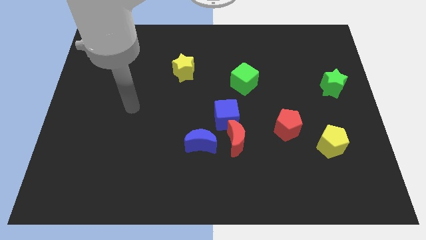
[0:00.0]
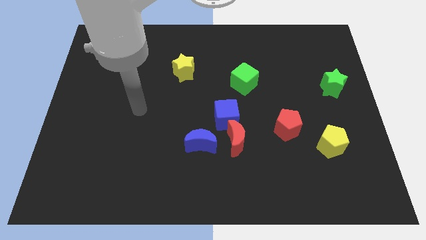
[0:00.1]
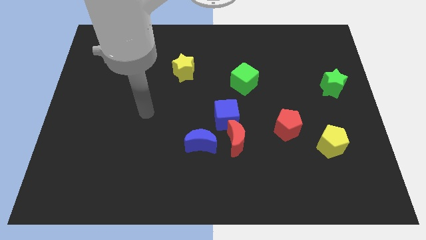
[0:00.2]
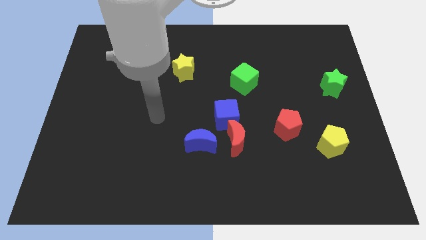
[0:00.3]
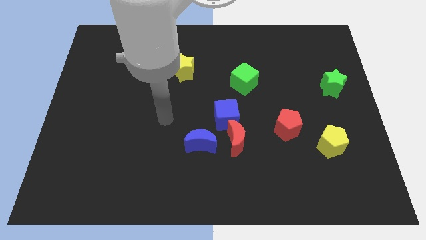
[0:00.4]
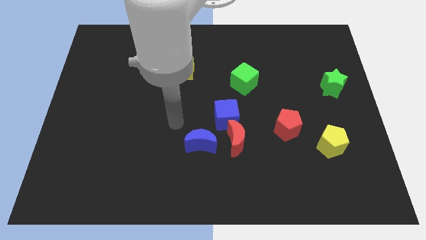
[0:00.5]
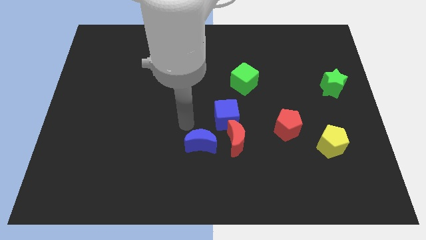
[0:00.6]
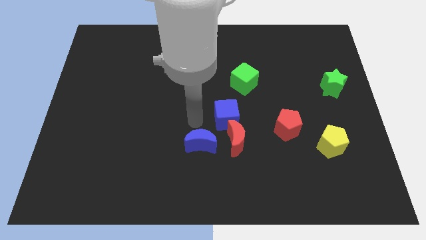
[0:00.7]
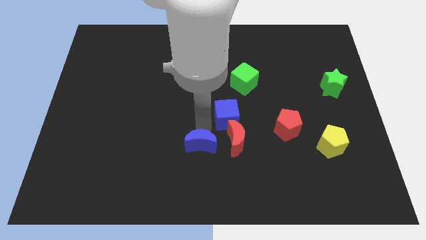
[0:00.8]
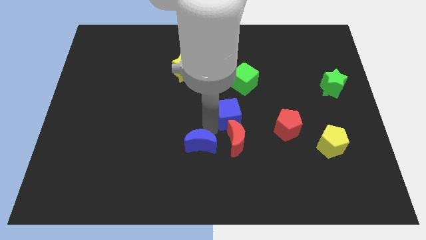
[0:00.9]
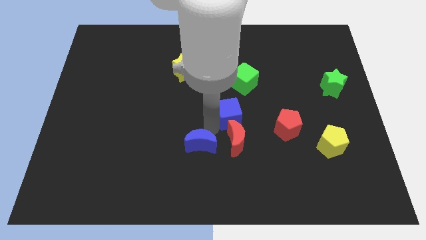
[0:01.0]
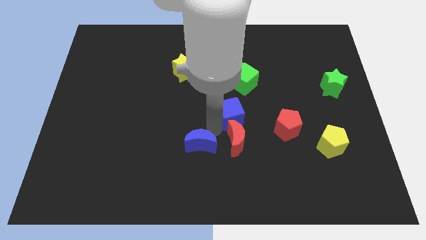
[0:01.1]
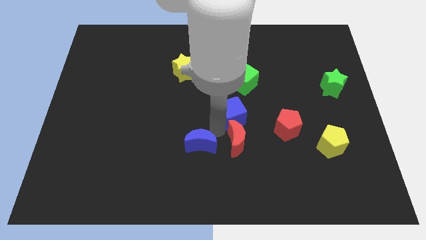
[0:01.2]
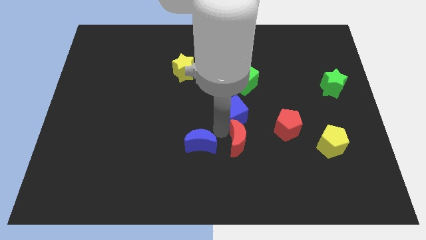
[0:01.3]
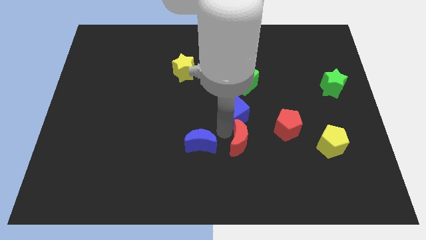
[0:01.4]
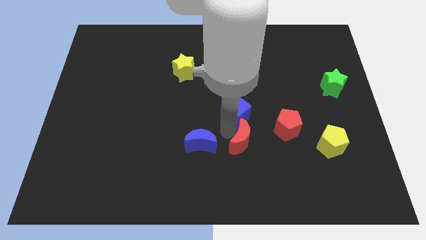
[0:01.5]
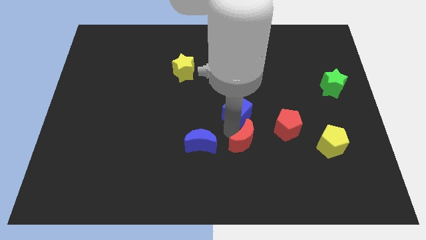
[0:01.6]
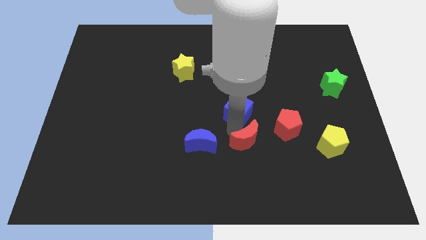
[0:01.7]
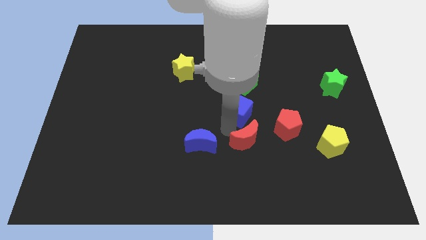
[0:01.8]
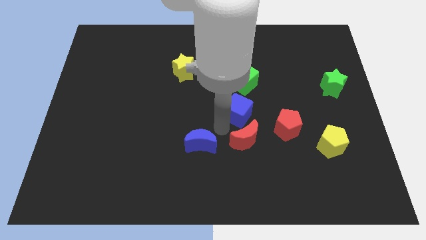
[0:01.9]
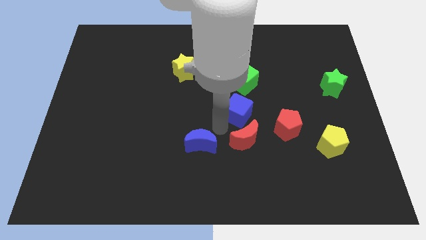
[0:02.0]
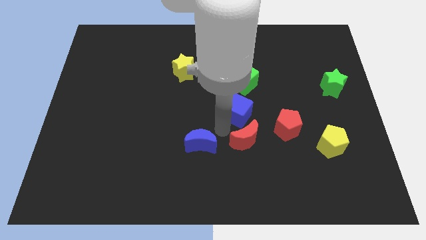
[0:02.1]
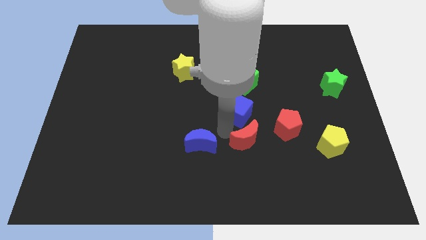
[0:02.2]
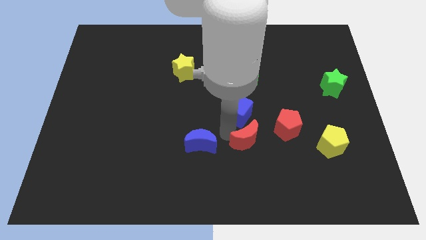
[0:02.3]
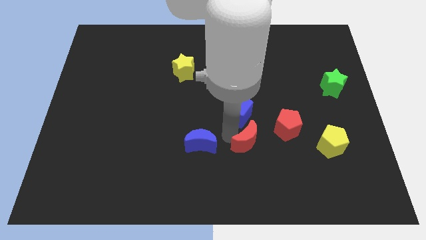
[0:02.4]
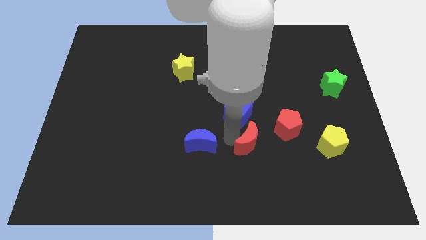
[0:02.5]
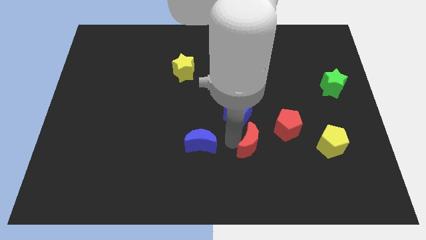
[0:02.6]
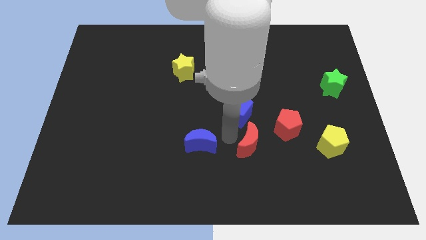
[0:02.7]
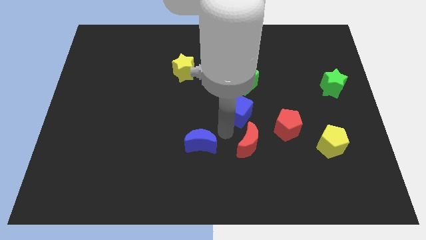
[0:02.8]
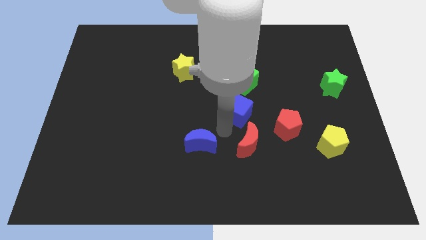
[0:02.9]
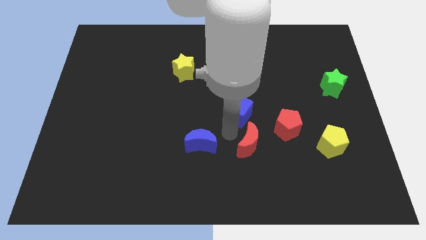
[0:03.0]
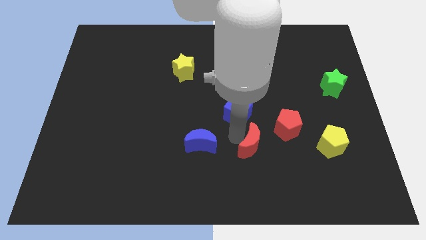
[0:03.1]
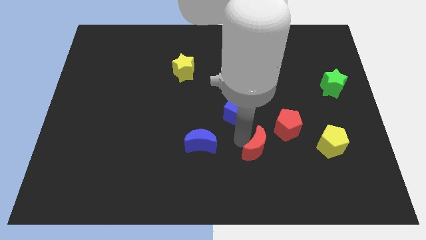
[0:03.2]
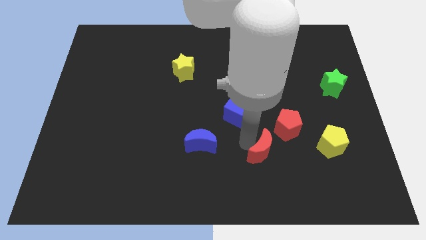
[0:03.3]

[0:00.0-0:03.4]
move the red moon away from the blue cube and blue moon

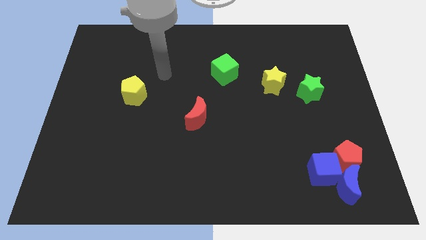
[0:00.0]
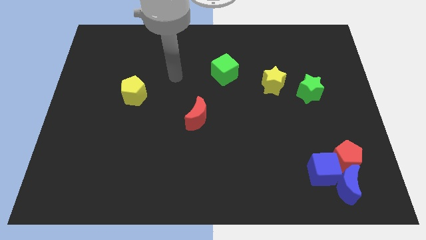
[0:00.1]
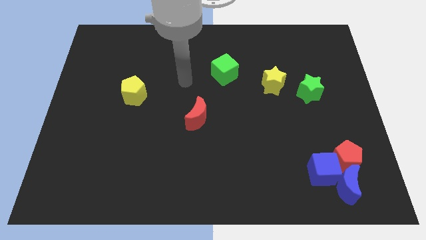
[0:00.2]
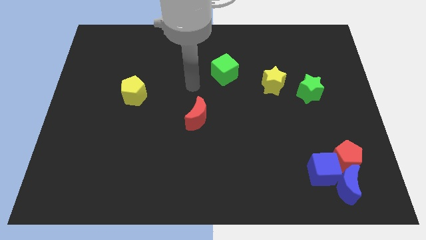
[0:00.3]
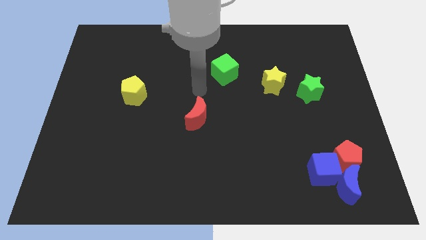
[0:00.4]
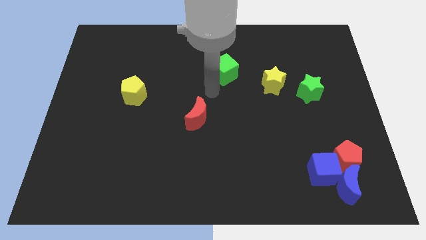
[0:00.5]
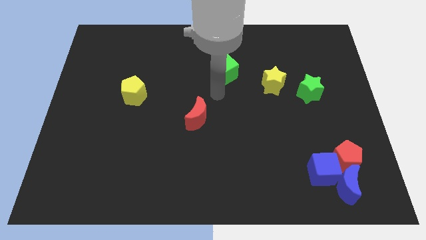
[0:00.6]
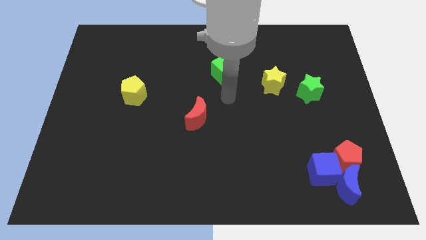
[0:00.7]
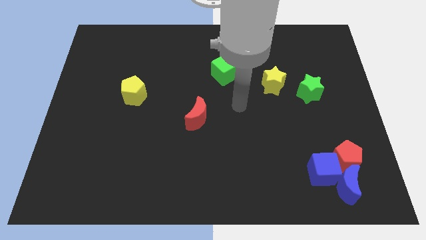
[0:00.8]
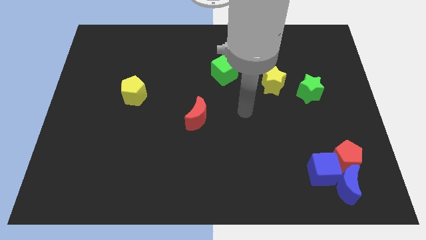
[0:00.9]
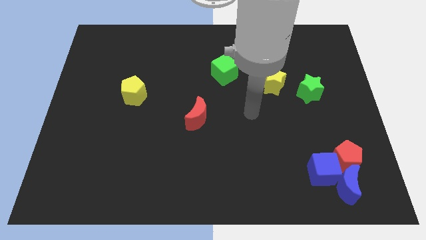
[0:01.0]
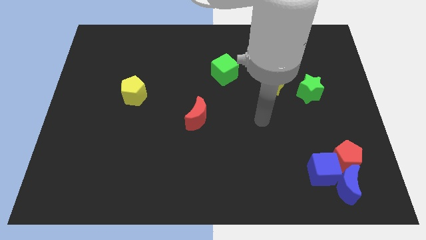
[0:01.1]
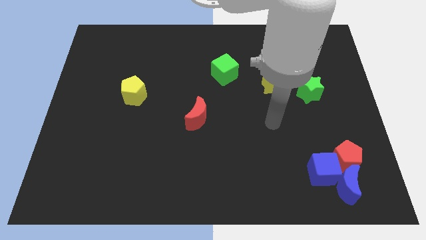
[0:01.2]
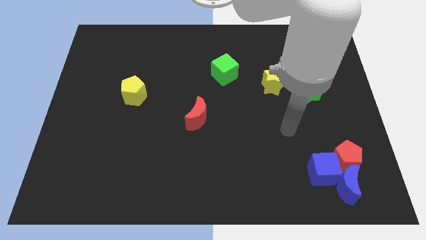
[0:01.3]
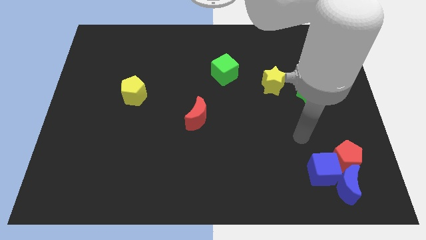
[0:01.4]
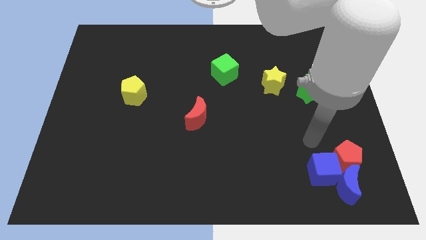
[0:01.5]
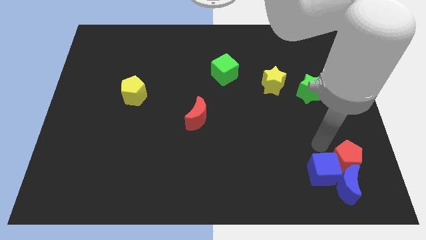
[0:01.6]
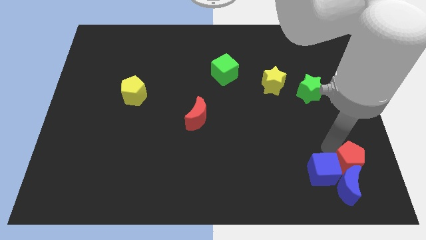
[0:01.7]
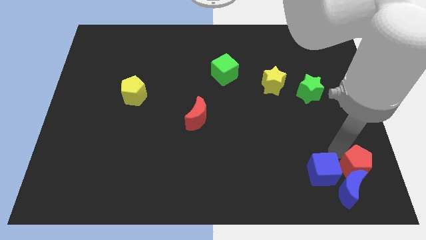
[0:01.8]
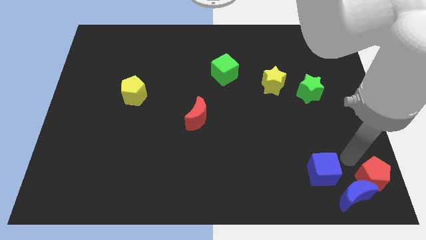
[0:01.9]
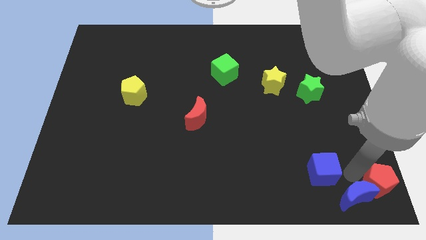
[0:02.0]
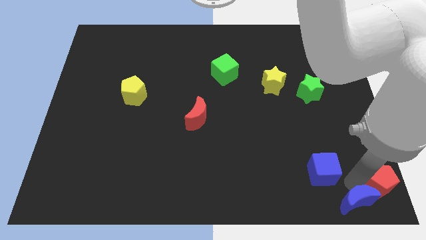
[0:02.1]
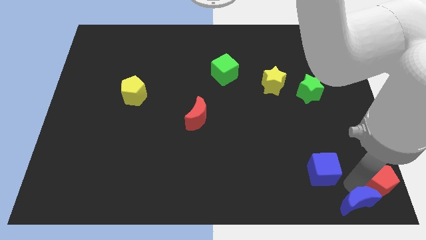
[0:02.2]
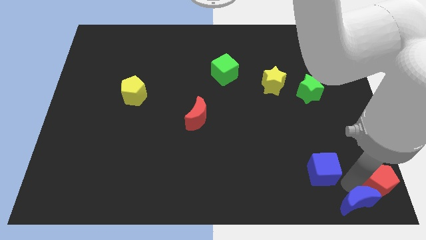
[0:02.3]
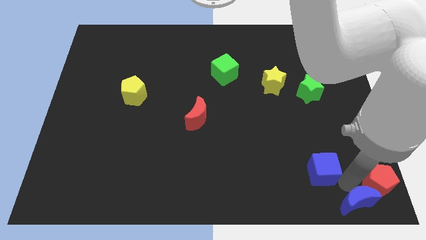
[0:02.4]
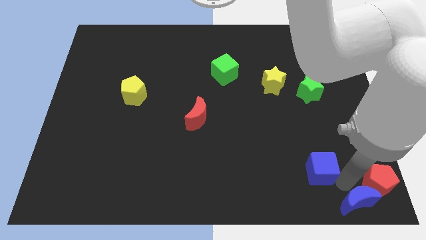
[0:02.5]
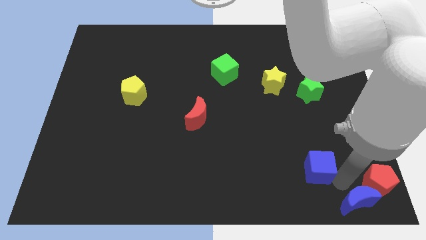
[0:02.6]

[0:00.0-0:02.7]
separate the blue cube from the blue moon and red pentagon

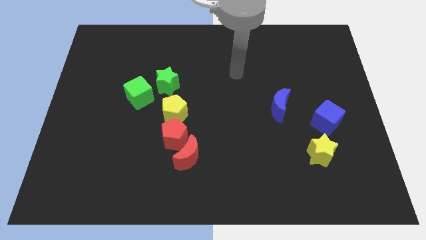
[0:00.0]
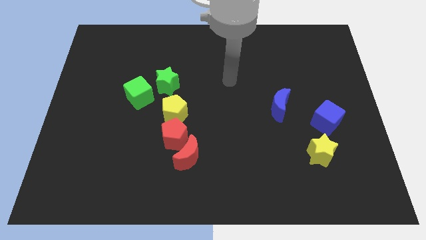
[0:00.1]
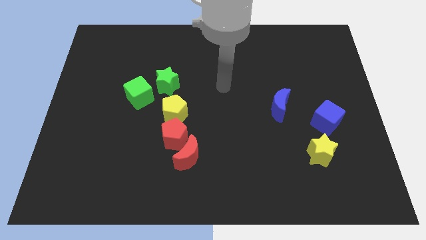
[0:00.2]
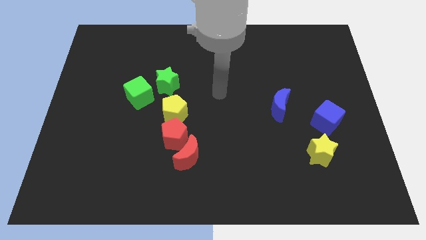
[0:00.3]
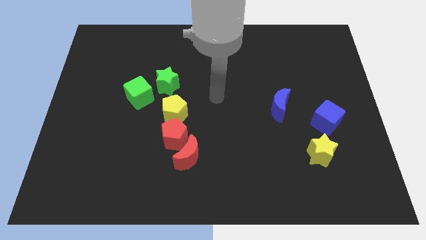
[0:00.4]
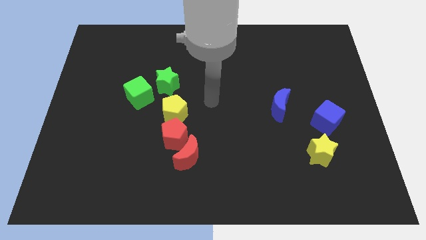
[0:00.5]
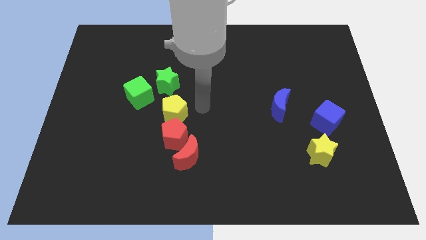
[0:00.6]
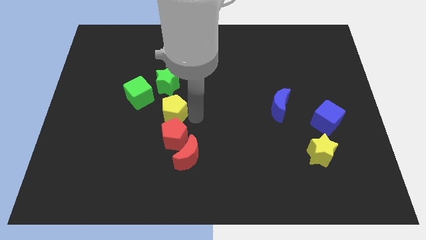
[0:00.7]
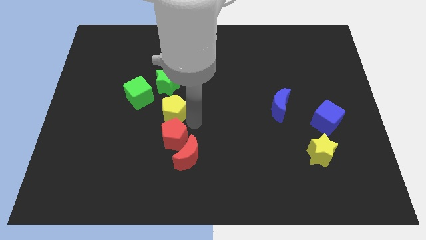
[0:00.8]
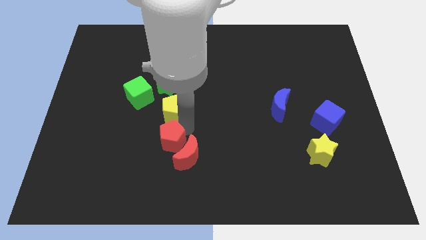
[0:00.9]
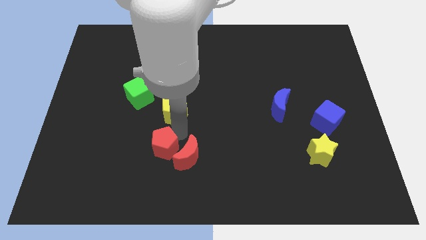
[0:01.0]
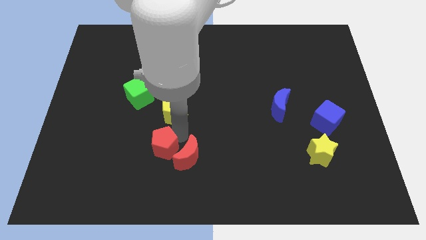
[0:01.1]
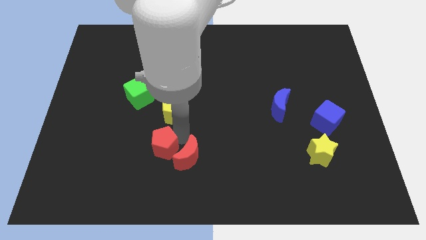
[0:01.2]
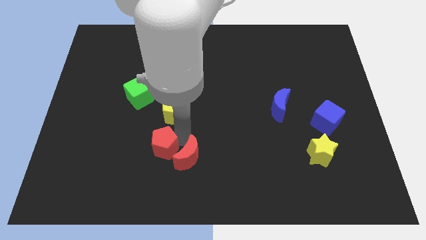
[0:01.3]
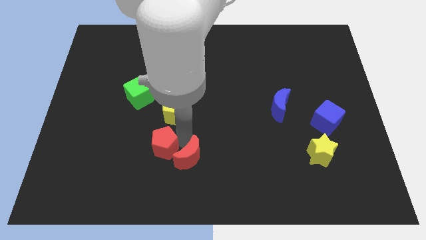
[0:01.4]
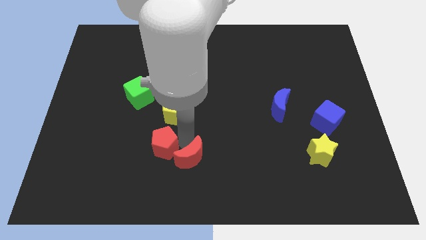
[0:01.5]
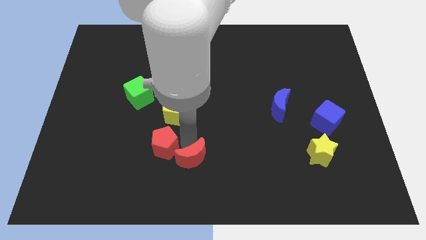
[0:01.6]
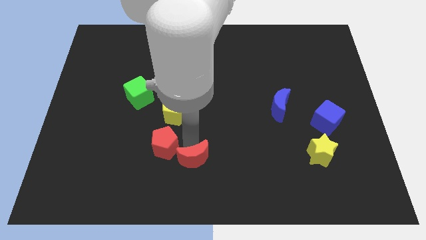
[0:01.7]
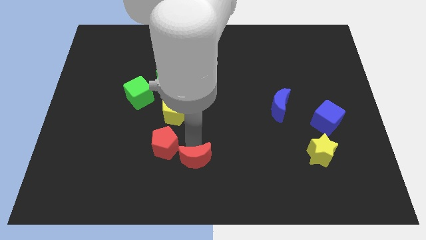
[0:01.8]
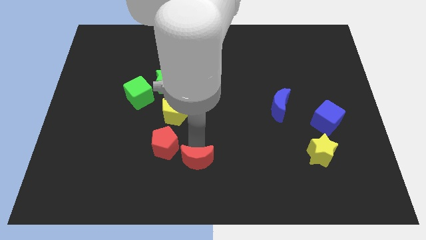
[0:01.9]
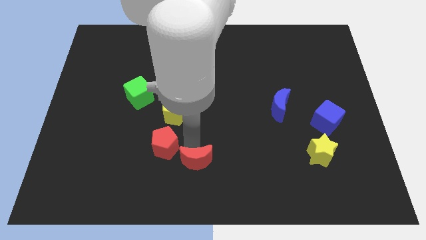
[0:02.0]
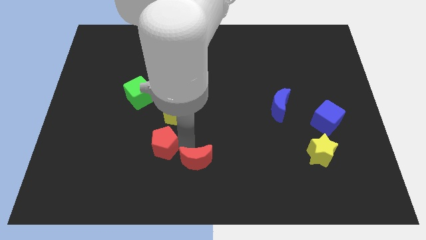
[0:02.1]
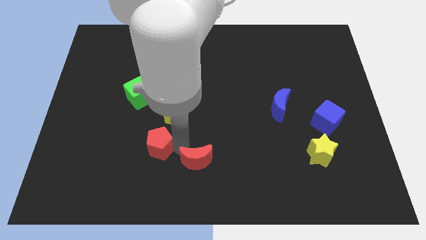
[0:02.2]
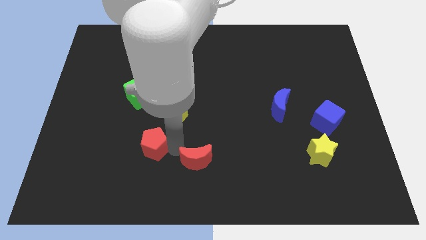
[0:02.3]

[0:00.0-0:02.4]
pull the red moon apart from the red pentagon

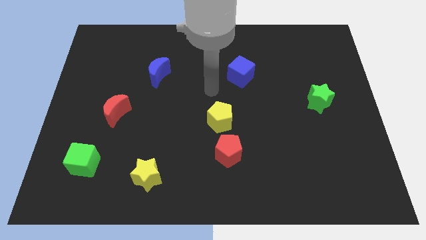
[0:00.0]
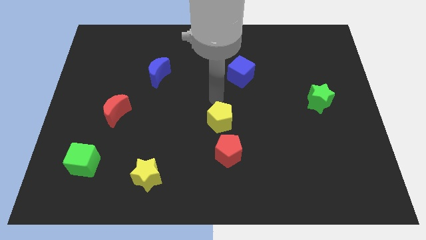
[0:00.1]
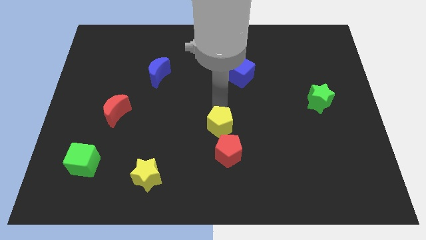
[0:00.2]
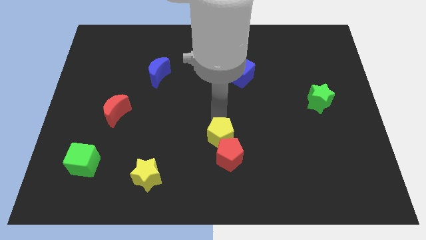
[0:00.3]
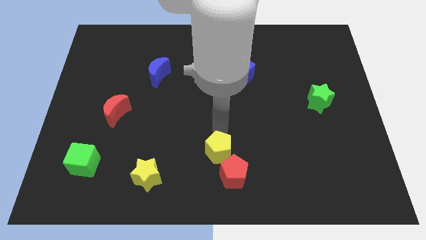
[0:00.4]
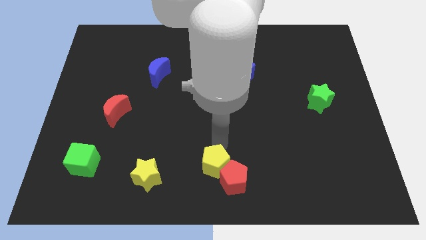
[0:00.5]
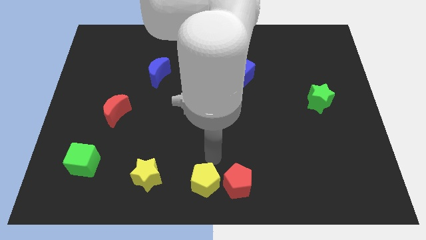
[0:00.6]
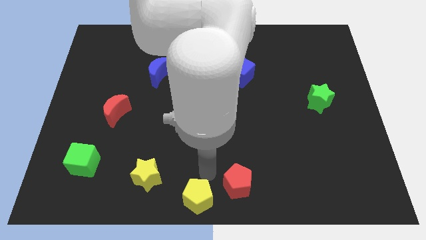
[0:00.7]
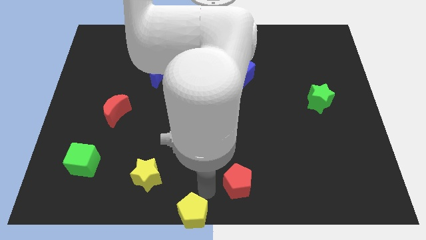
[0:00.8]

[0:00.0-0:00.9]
move the red pentagon away from the yellow pentagon
